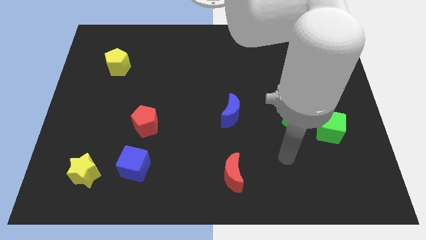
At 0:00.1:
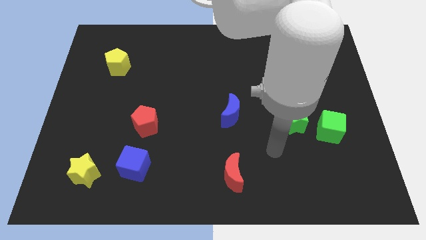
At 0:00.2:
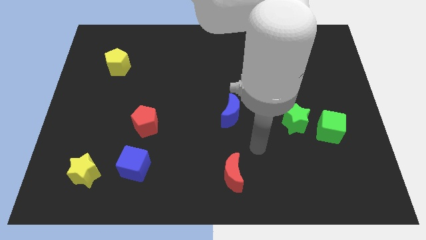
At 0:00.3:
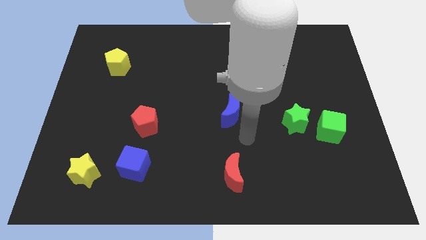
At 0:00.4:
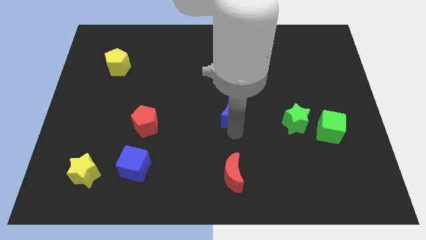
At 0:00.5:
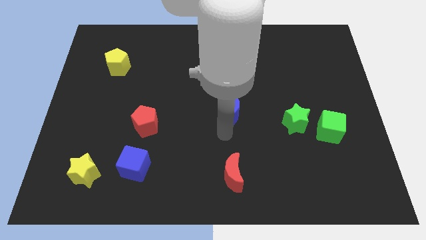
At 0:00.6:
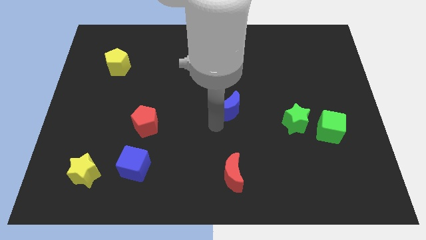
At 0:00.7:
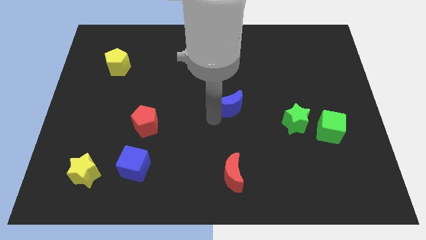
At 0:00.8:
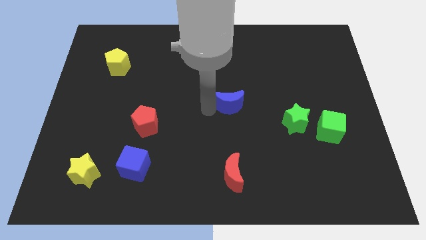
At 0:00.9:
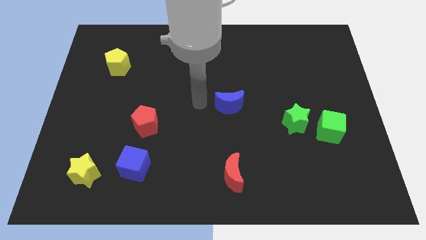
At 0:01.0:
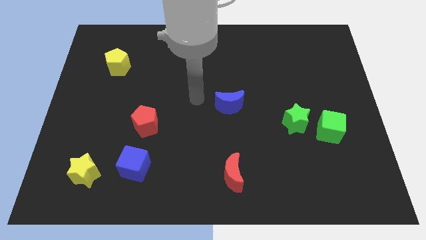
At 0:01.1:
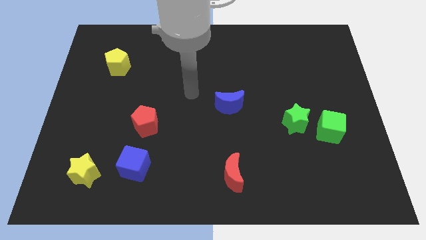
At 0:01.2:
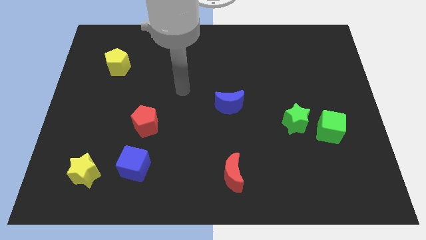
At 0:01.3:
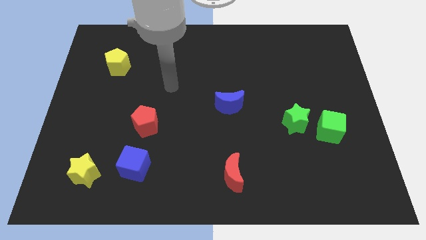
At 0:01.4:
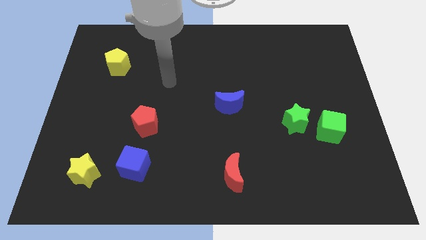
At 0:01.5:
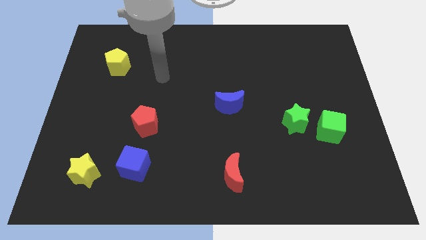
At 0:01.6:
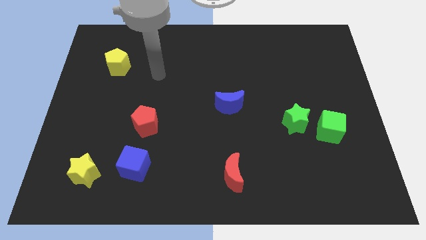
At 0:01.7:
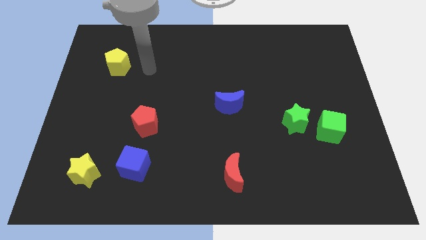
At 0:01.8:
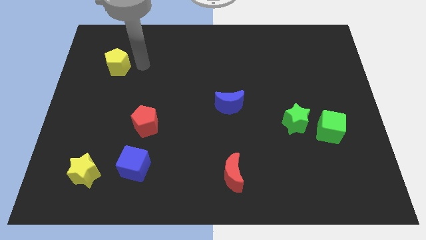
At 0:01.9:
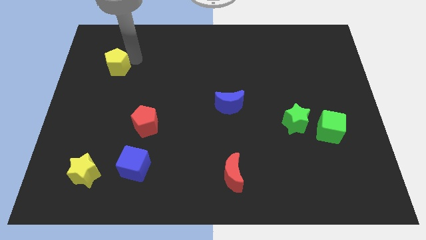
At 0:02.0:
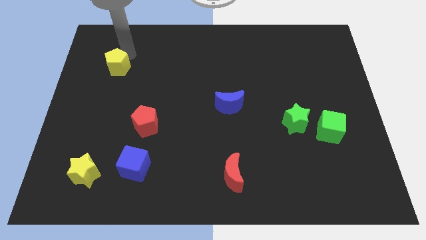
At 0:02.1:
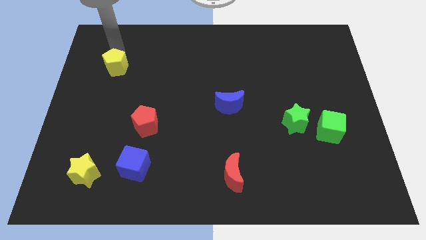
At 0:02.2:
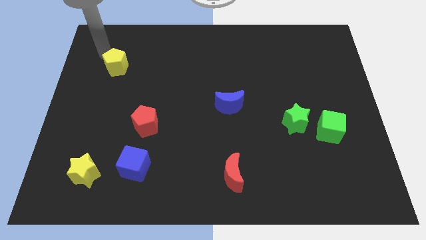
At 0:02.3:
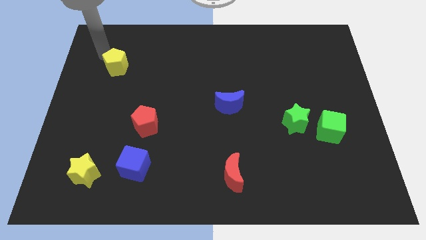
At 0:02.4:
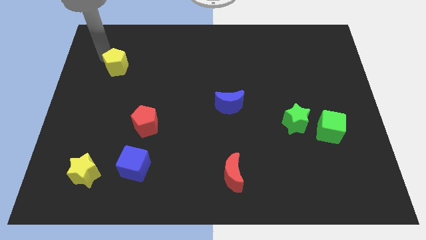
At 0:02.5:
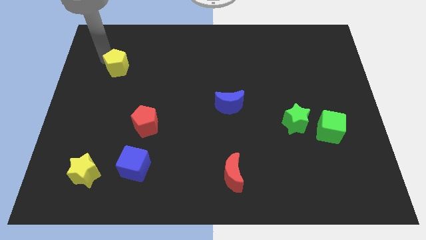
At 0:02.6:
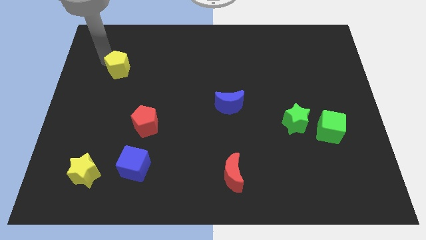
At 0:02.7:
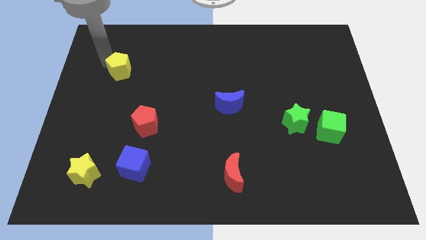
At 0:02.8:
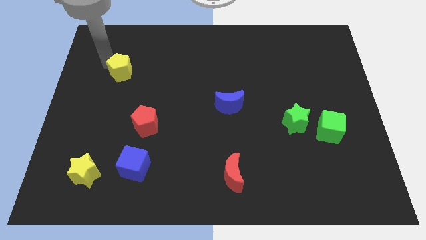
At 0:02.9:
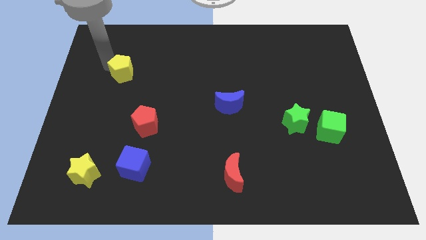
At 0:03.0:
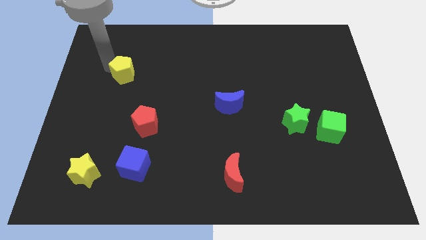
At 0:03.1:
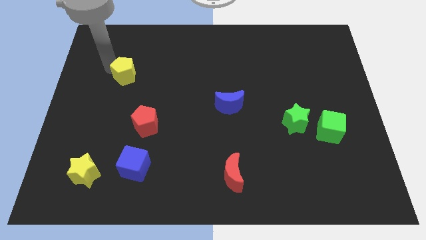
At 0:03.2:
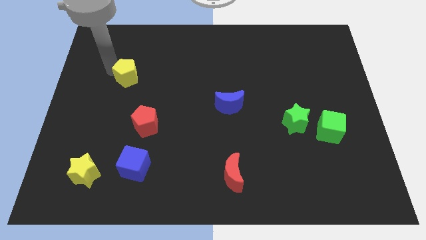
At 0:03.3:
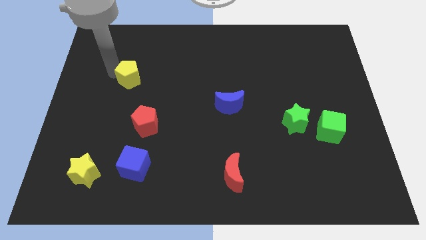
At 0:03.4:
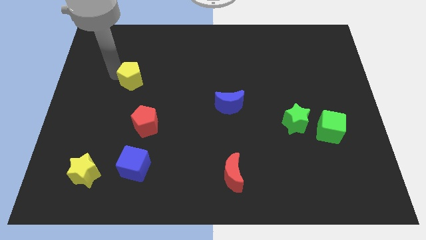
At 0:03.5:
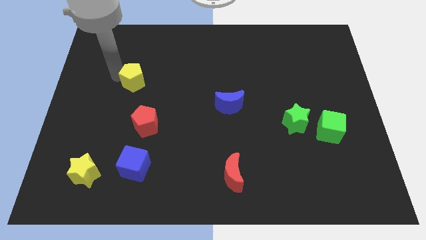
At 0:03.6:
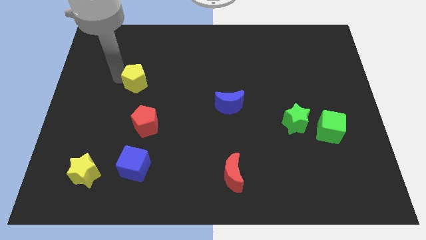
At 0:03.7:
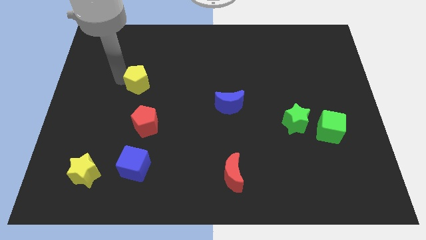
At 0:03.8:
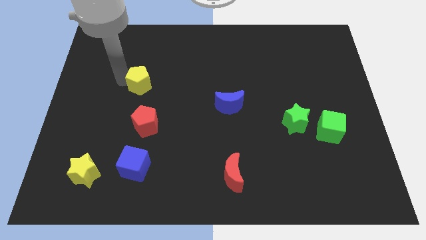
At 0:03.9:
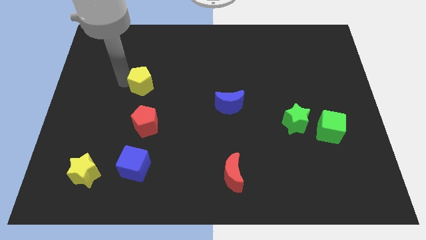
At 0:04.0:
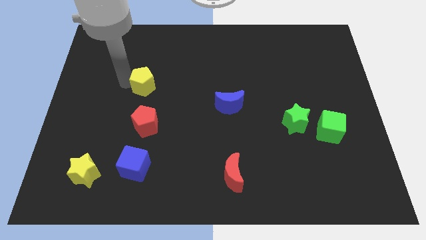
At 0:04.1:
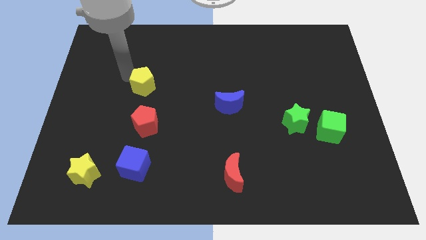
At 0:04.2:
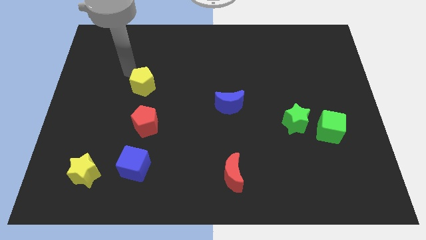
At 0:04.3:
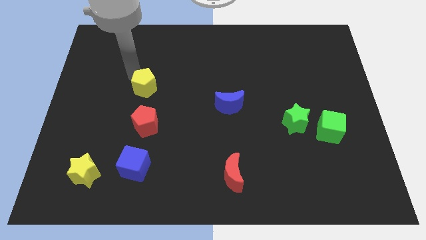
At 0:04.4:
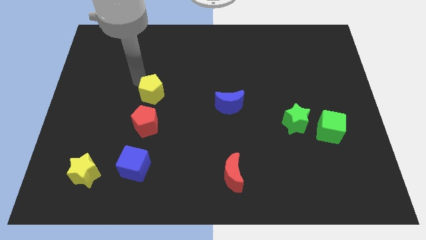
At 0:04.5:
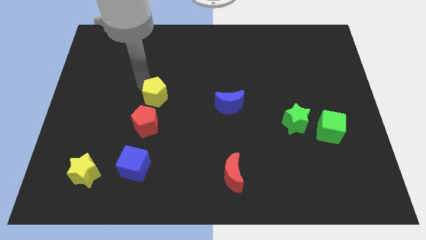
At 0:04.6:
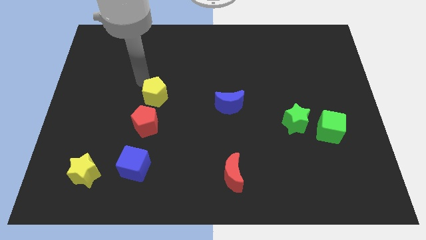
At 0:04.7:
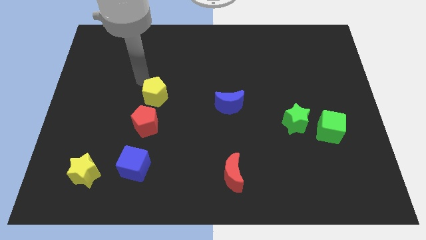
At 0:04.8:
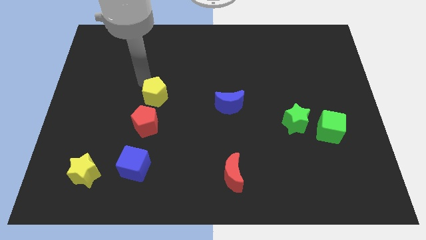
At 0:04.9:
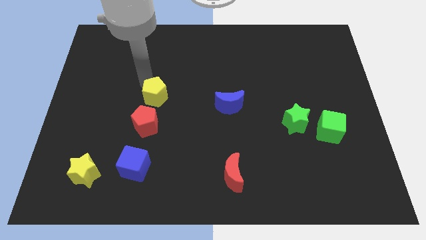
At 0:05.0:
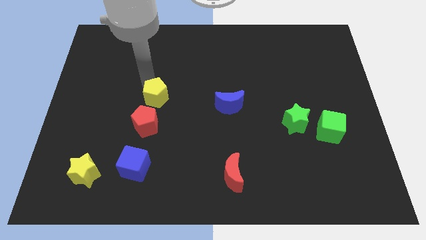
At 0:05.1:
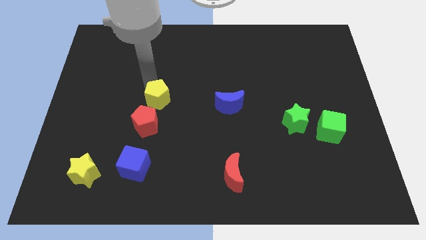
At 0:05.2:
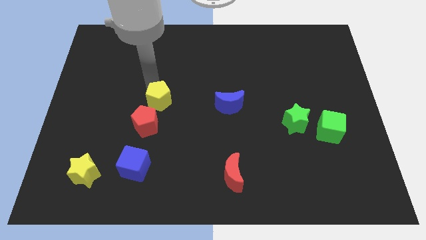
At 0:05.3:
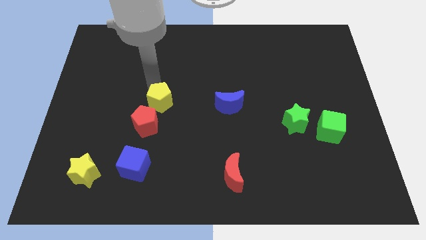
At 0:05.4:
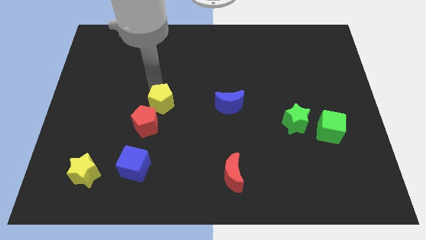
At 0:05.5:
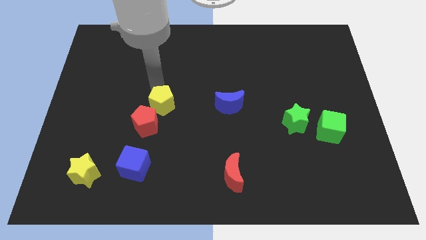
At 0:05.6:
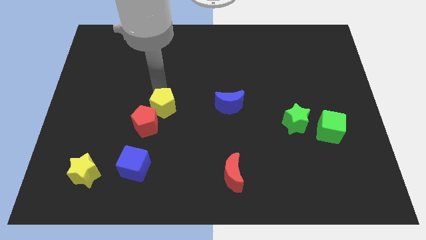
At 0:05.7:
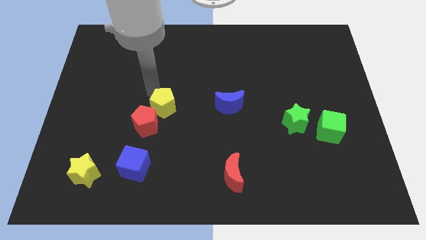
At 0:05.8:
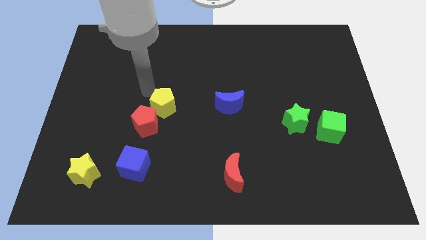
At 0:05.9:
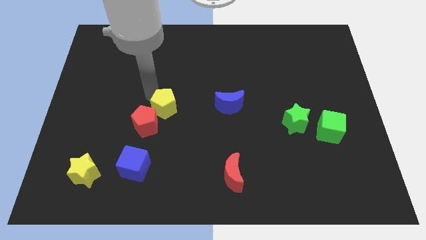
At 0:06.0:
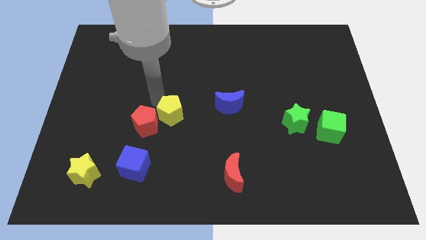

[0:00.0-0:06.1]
push the yellow pentagon diagonally downwards and right

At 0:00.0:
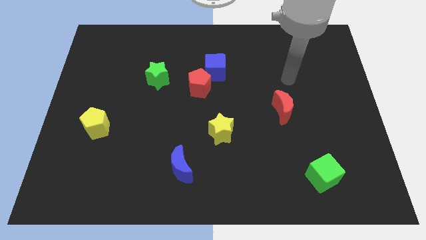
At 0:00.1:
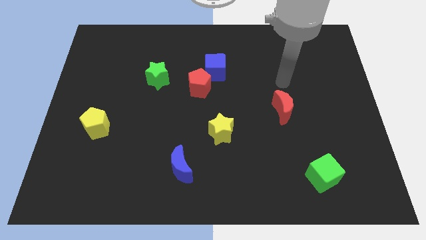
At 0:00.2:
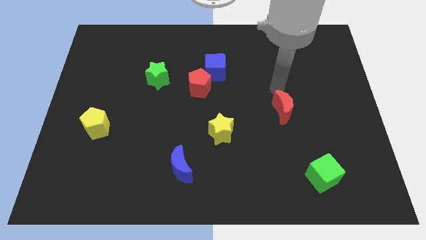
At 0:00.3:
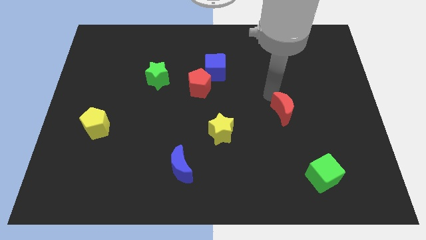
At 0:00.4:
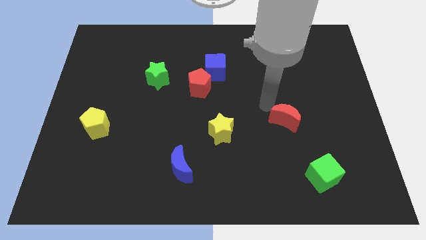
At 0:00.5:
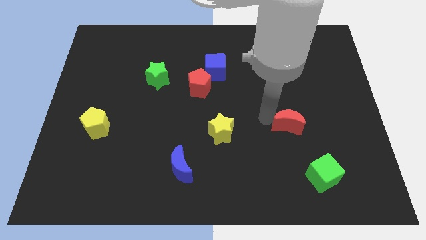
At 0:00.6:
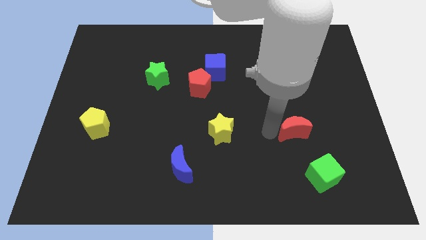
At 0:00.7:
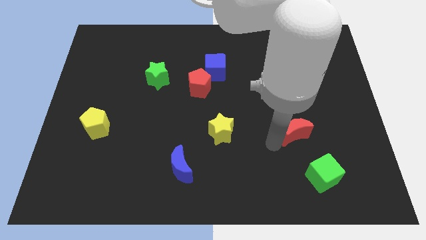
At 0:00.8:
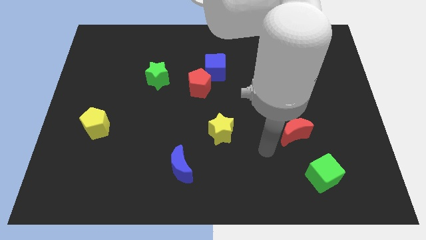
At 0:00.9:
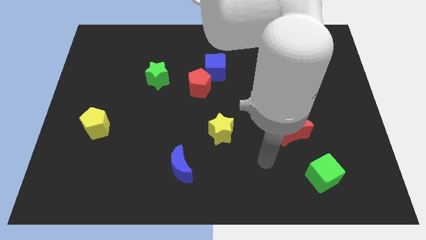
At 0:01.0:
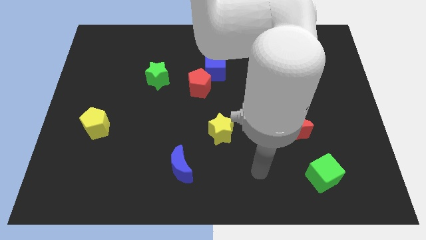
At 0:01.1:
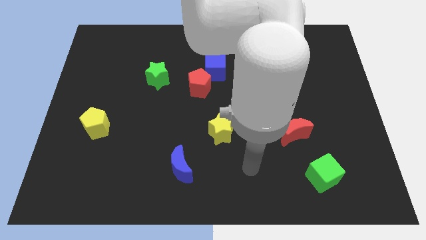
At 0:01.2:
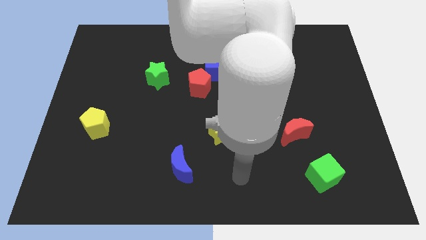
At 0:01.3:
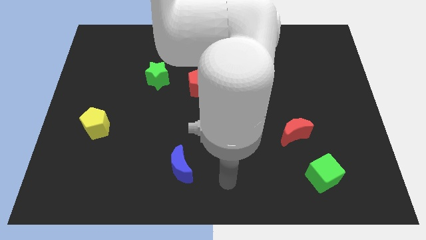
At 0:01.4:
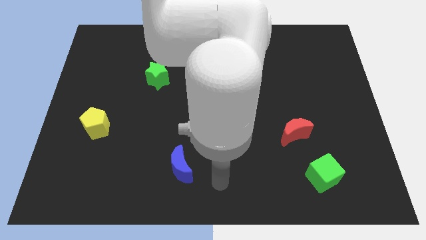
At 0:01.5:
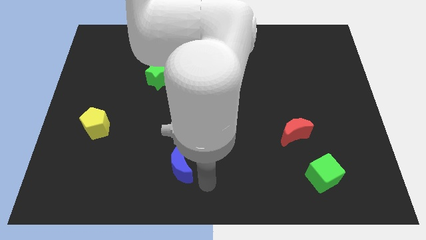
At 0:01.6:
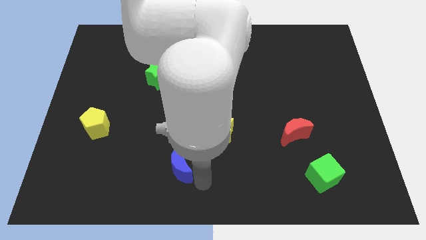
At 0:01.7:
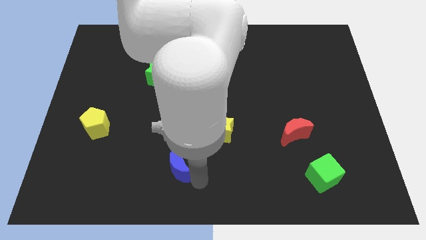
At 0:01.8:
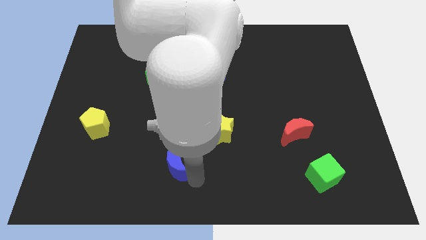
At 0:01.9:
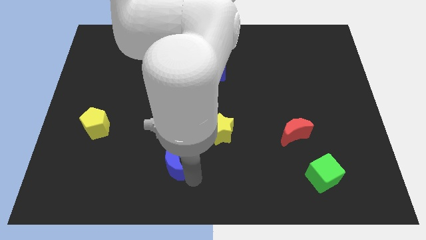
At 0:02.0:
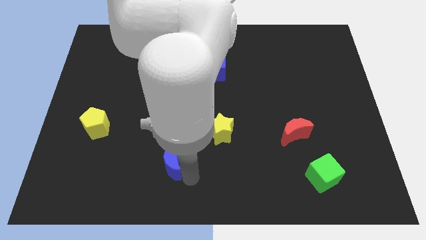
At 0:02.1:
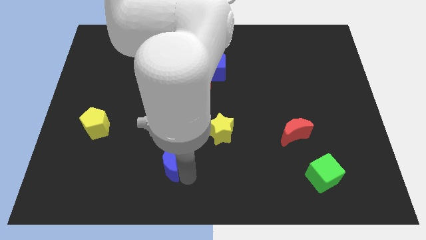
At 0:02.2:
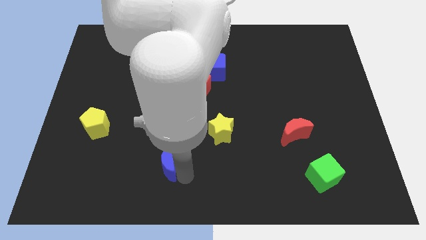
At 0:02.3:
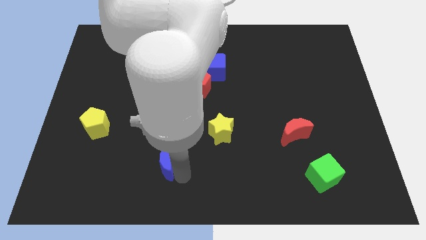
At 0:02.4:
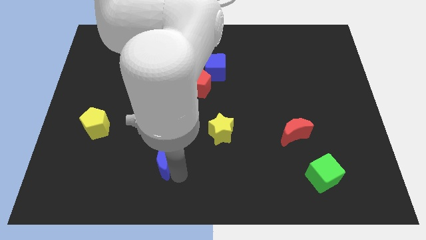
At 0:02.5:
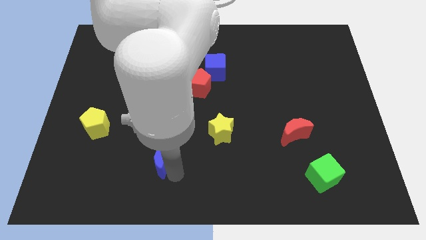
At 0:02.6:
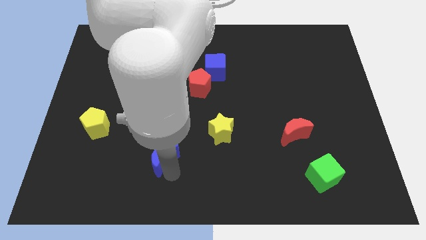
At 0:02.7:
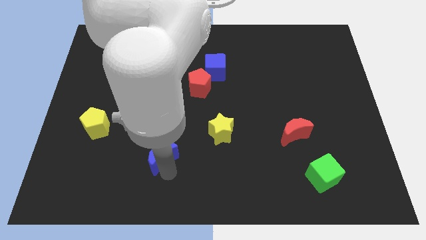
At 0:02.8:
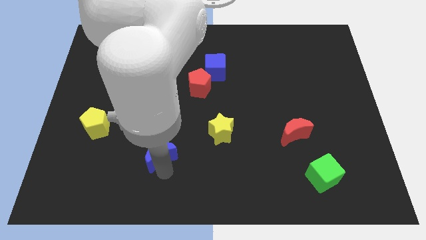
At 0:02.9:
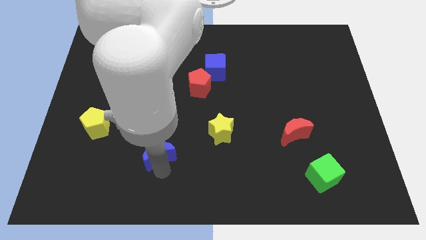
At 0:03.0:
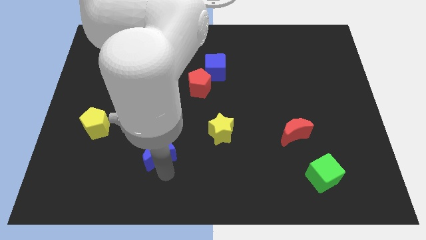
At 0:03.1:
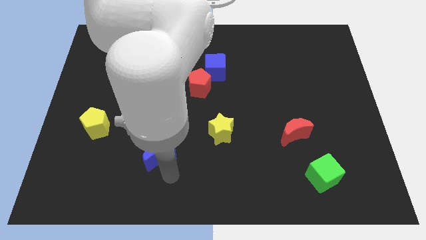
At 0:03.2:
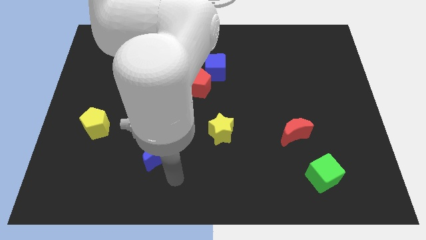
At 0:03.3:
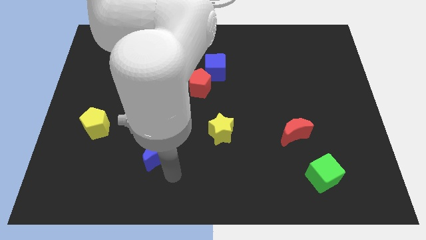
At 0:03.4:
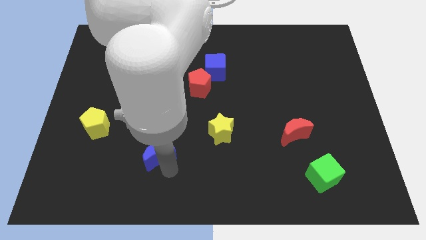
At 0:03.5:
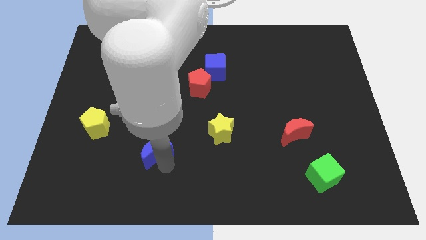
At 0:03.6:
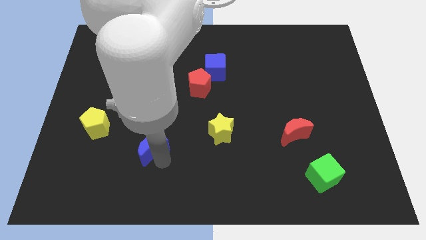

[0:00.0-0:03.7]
slightly push the blue moon upwards and to the left diagonally
